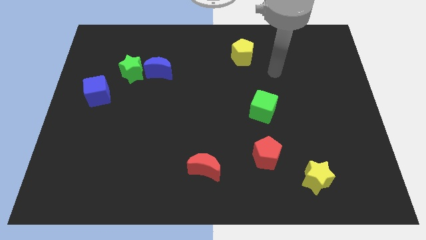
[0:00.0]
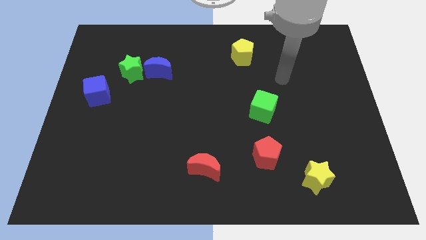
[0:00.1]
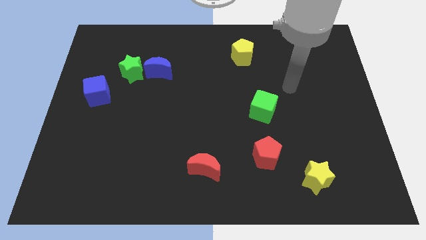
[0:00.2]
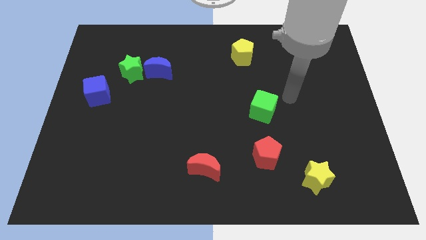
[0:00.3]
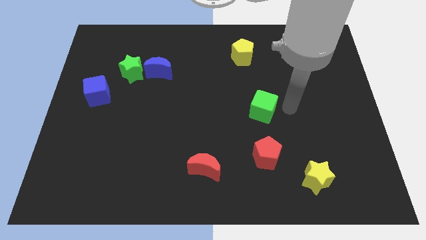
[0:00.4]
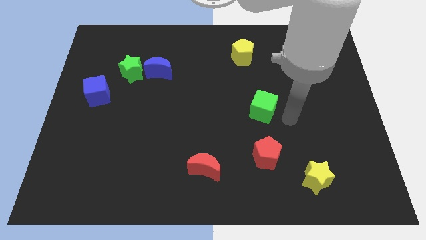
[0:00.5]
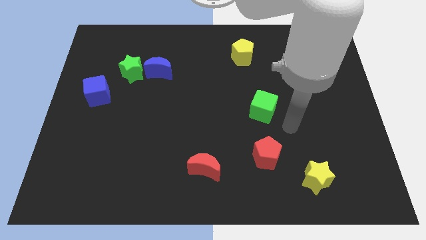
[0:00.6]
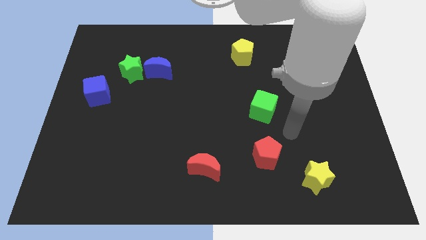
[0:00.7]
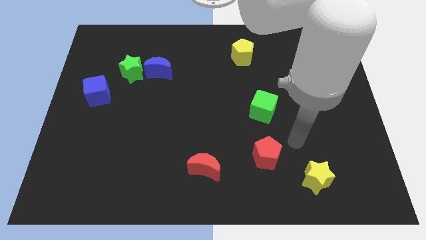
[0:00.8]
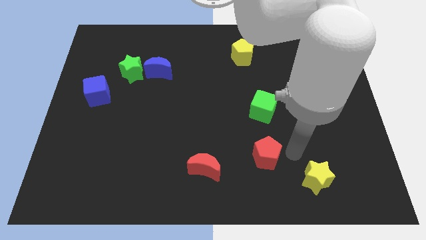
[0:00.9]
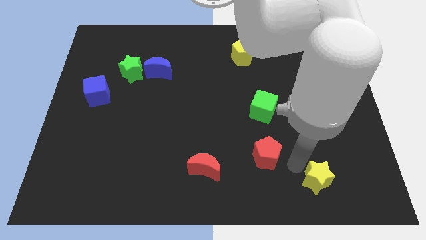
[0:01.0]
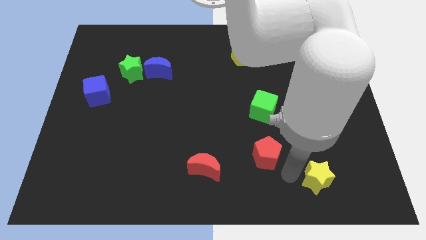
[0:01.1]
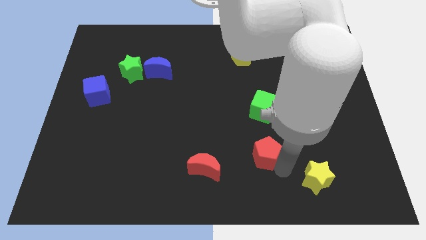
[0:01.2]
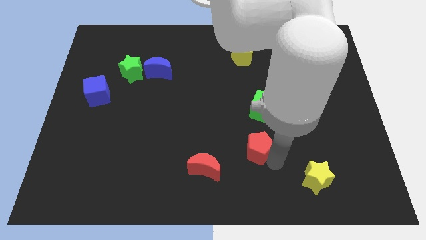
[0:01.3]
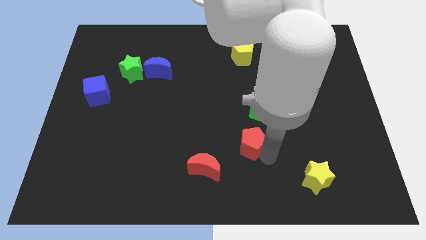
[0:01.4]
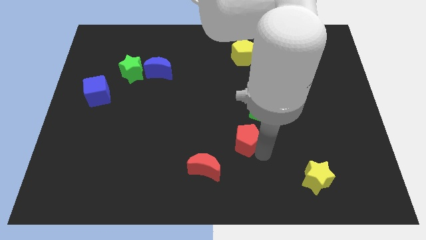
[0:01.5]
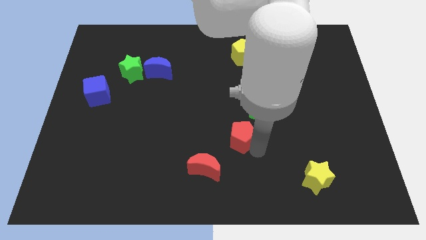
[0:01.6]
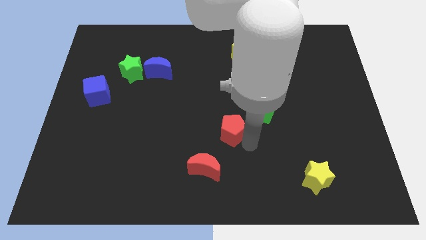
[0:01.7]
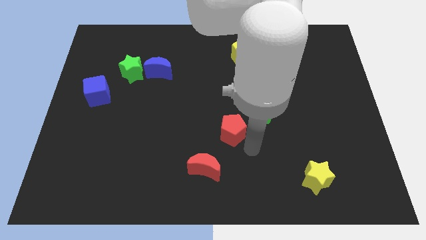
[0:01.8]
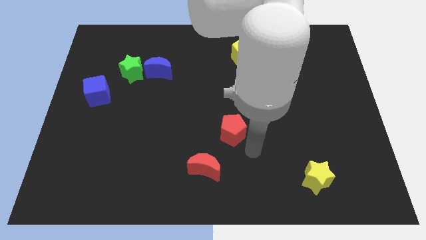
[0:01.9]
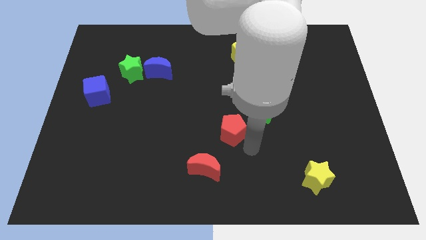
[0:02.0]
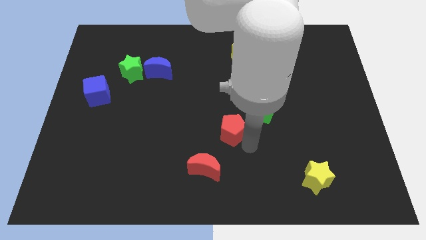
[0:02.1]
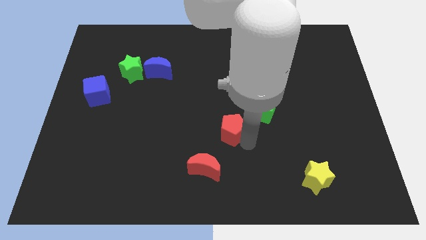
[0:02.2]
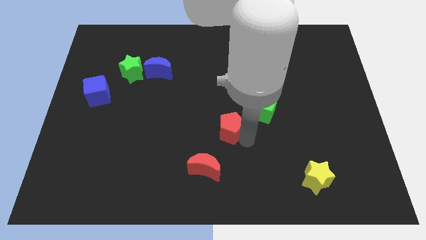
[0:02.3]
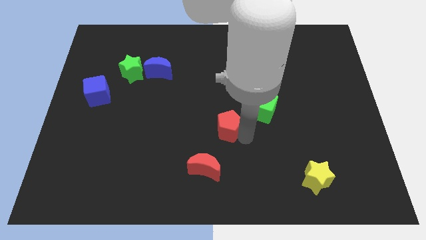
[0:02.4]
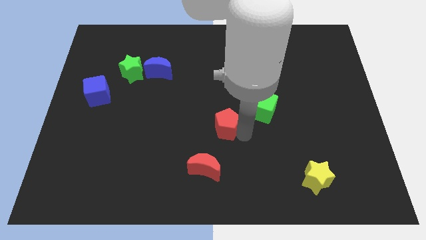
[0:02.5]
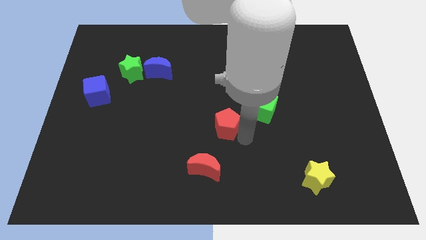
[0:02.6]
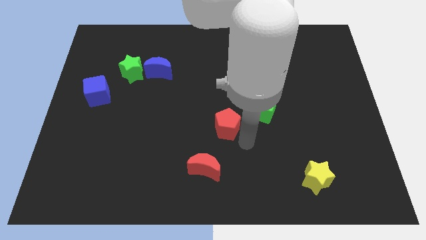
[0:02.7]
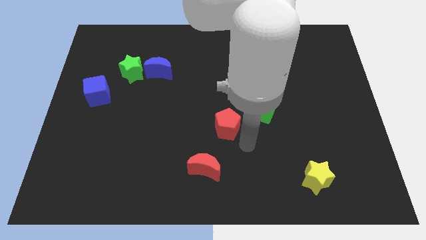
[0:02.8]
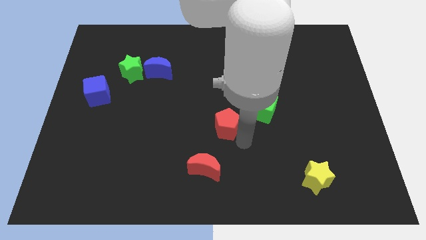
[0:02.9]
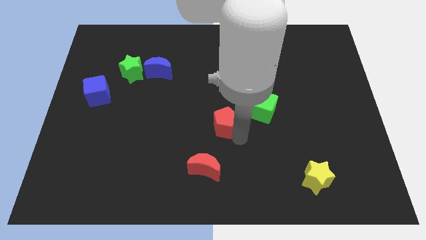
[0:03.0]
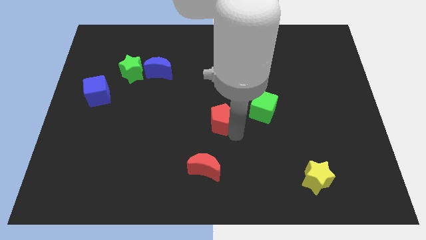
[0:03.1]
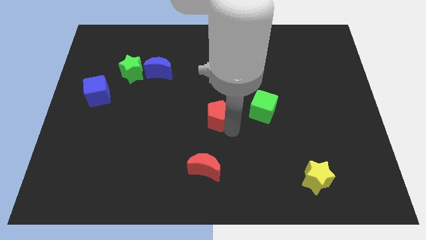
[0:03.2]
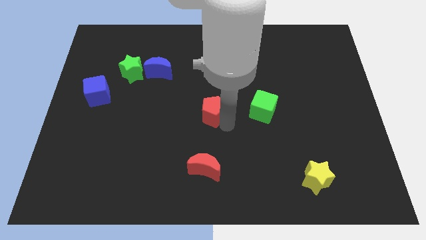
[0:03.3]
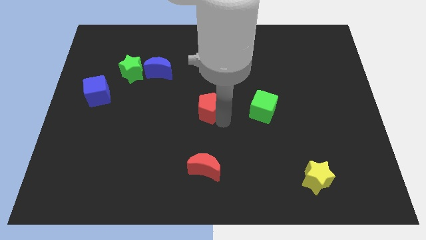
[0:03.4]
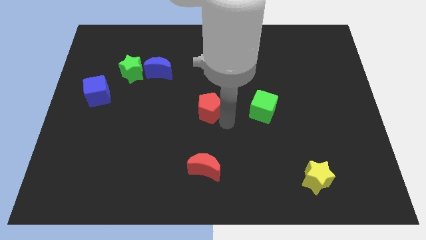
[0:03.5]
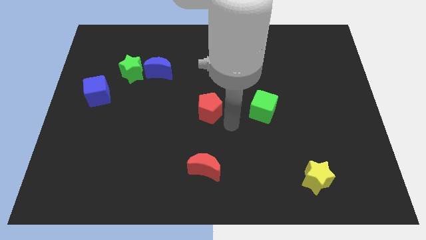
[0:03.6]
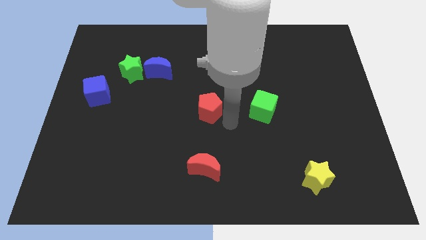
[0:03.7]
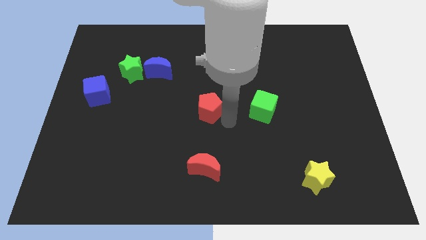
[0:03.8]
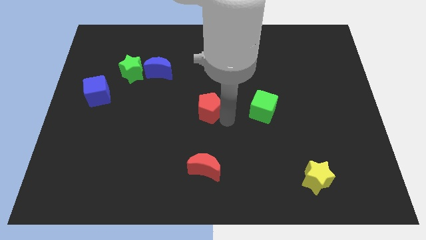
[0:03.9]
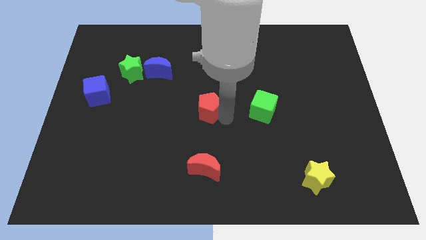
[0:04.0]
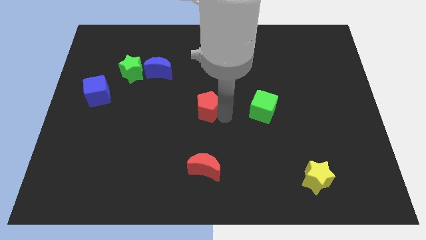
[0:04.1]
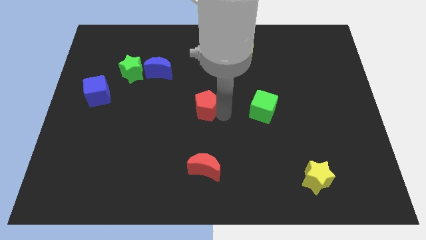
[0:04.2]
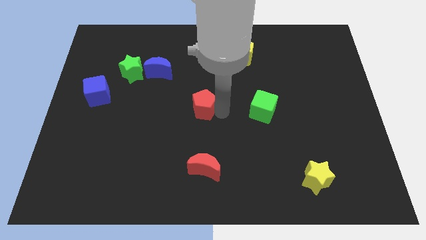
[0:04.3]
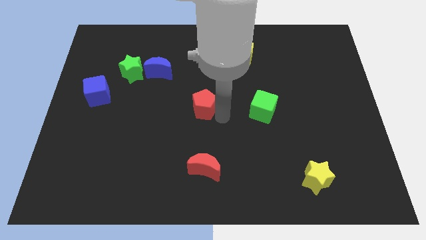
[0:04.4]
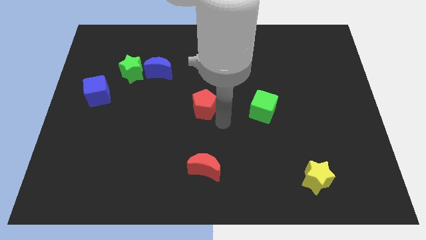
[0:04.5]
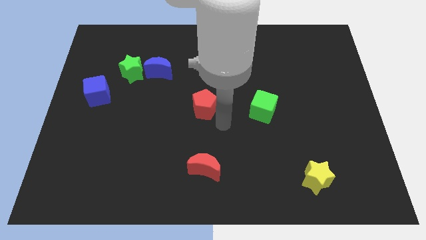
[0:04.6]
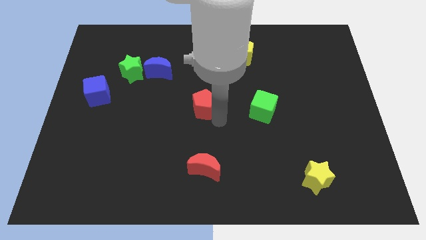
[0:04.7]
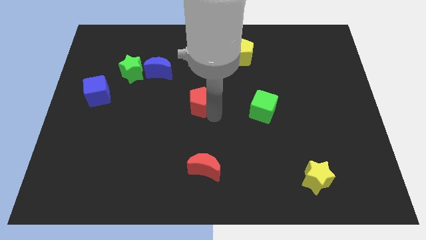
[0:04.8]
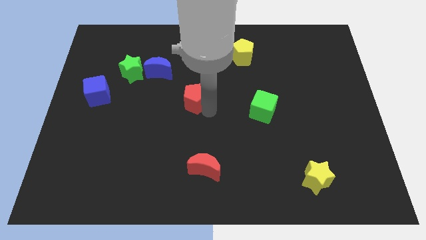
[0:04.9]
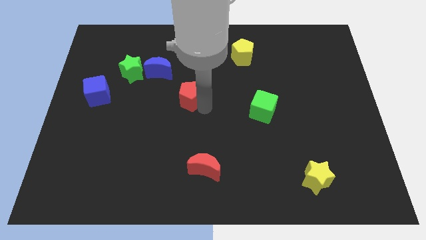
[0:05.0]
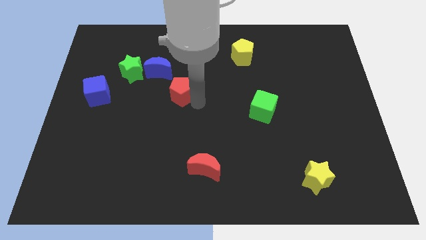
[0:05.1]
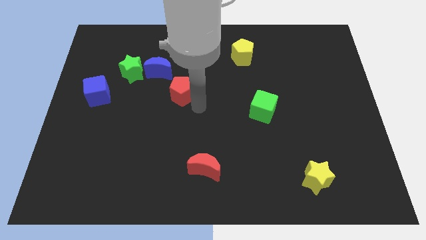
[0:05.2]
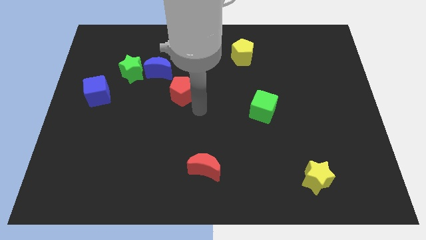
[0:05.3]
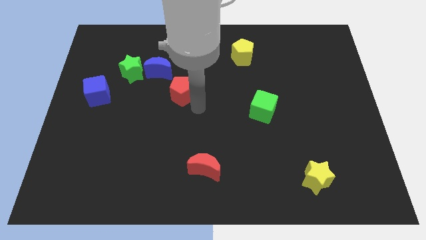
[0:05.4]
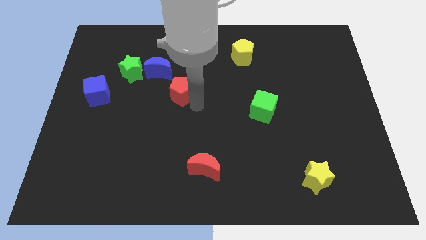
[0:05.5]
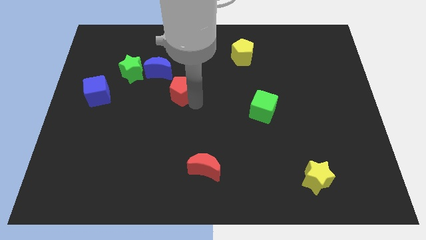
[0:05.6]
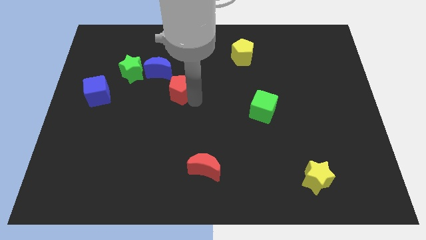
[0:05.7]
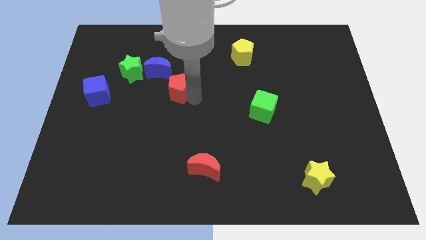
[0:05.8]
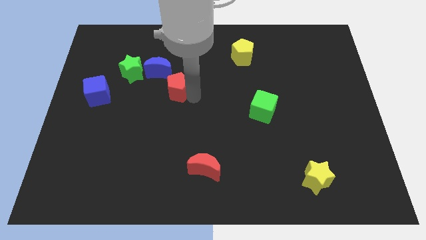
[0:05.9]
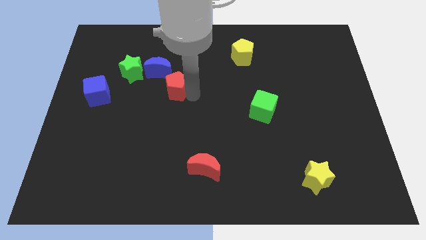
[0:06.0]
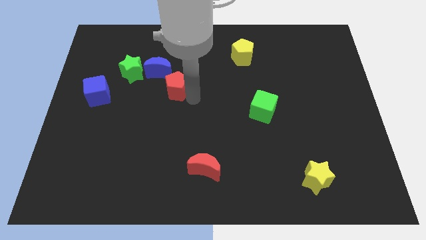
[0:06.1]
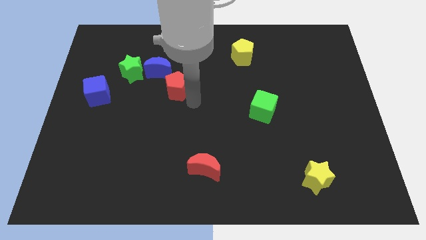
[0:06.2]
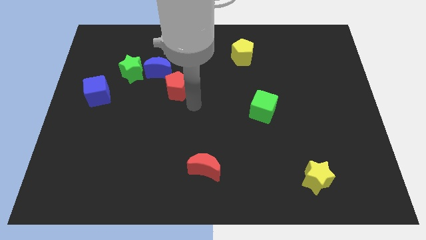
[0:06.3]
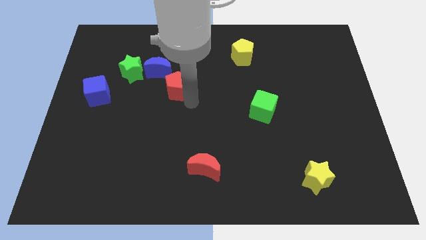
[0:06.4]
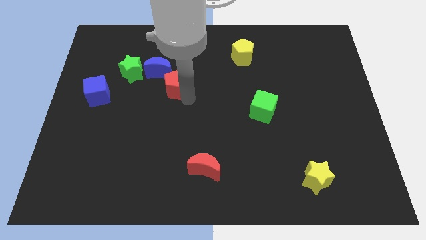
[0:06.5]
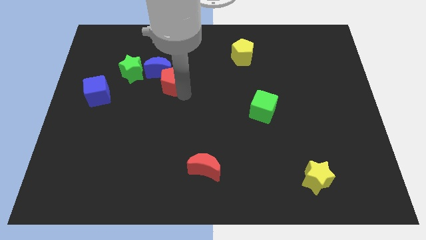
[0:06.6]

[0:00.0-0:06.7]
put the red pentagon close to the blue moon

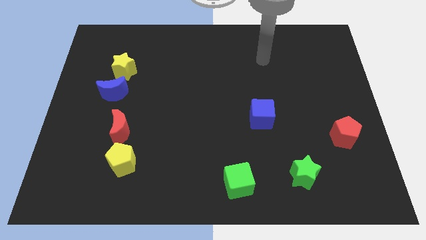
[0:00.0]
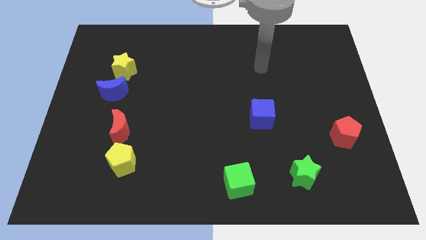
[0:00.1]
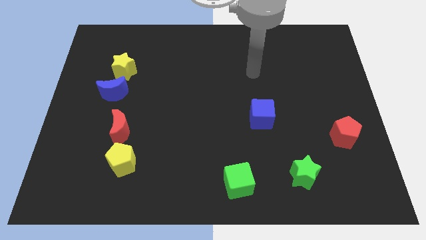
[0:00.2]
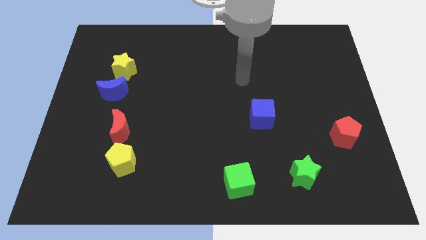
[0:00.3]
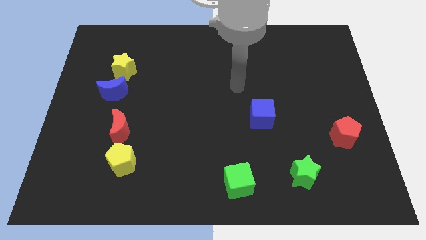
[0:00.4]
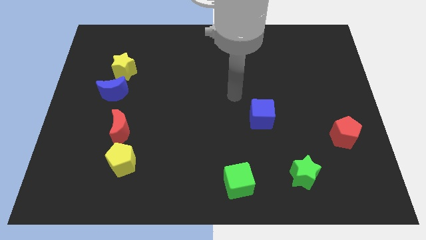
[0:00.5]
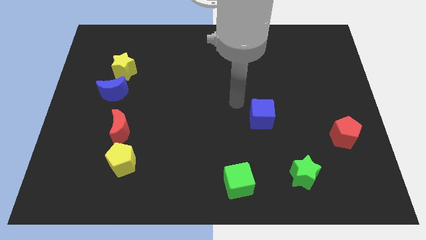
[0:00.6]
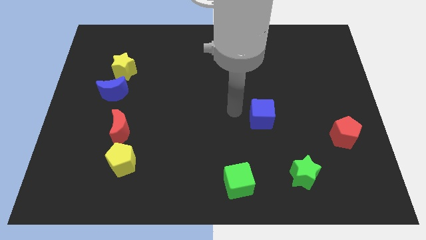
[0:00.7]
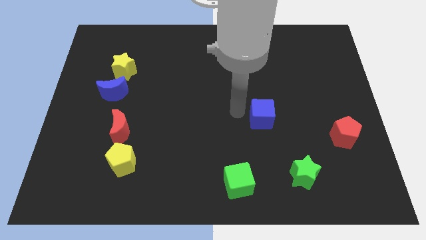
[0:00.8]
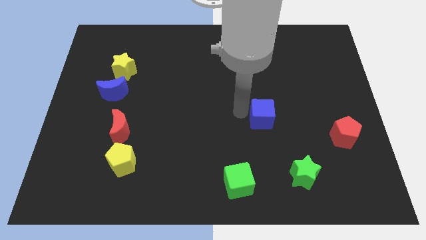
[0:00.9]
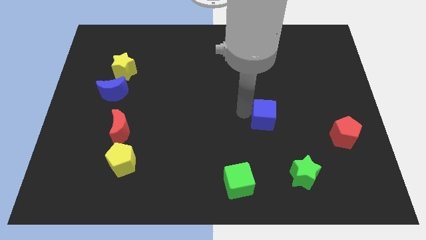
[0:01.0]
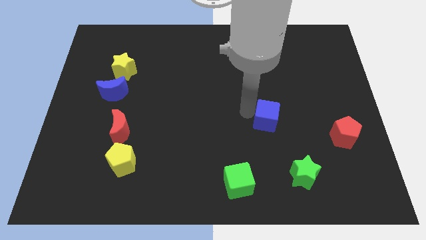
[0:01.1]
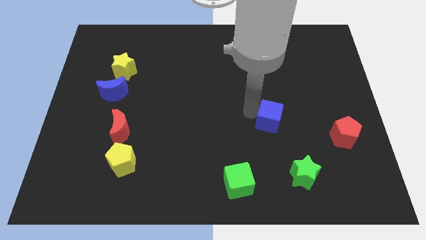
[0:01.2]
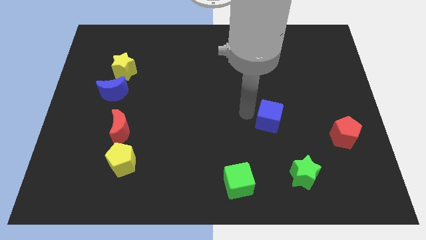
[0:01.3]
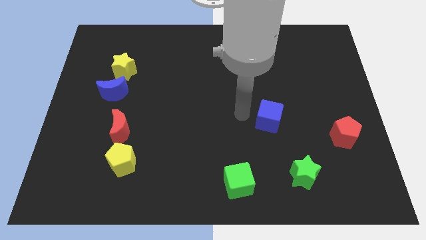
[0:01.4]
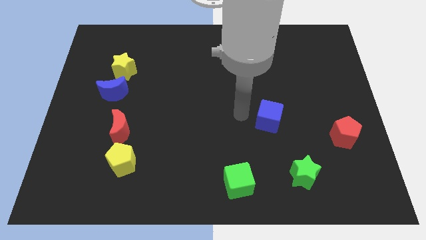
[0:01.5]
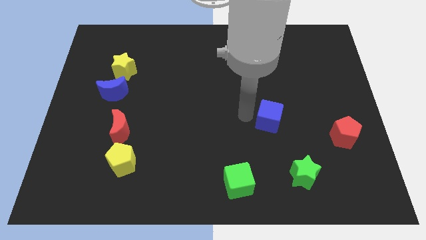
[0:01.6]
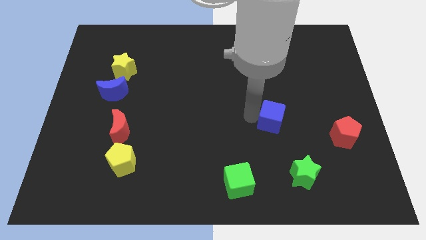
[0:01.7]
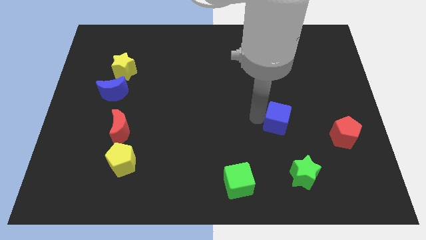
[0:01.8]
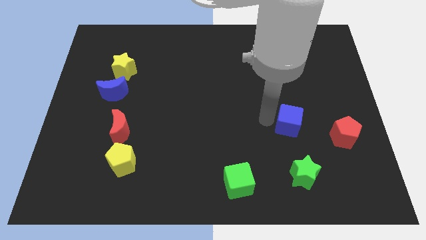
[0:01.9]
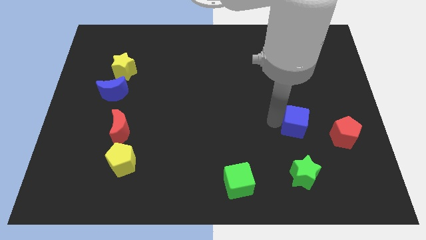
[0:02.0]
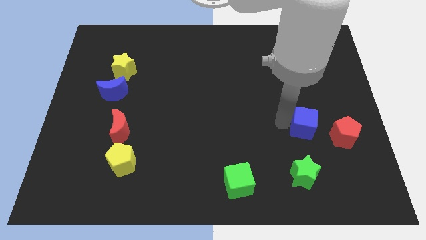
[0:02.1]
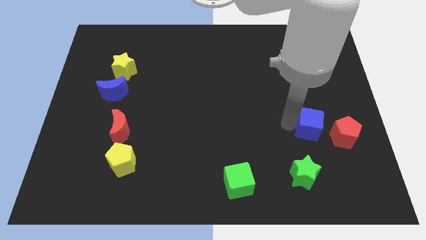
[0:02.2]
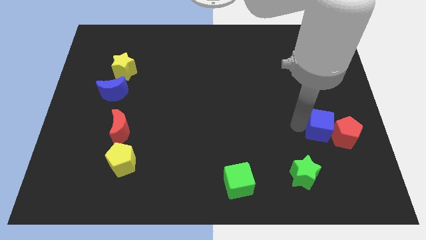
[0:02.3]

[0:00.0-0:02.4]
push the blue cube next to the red pentagon
